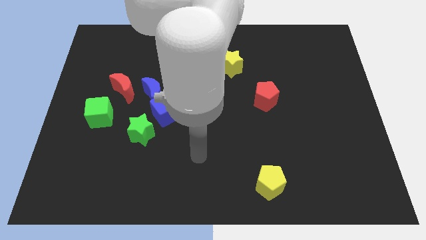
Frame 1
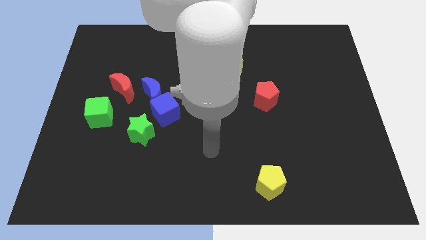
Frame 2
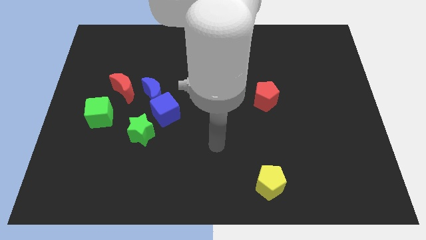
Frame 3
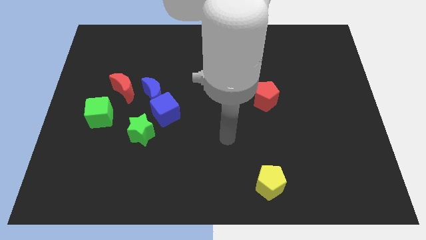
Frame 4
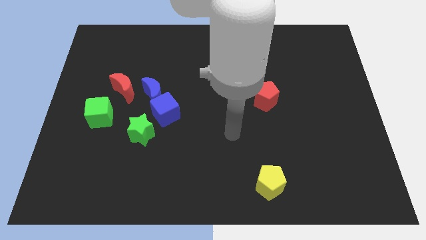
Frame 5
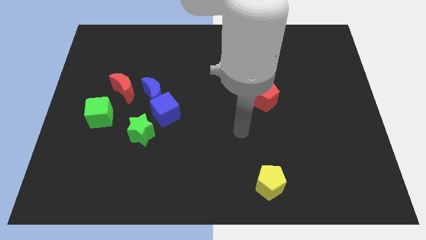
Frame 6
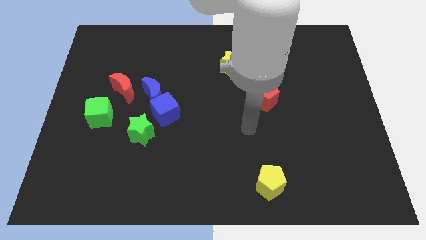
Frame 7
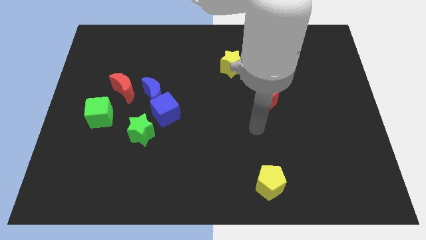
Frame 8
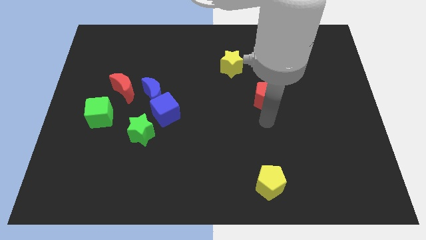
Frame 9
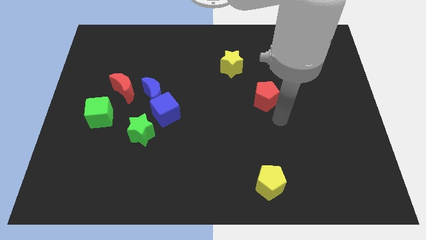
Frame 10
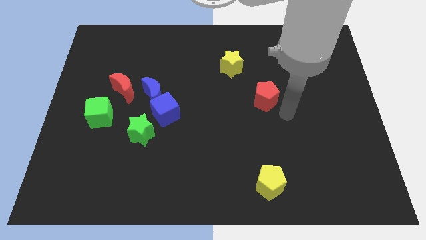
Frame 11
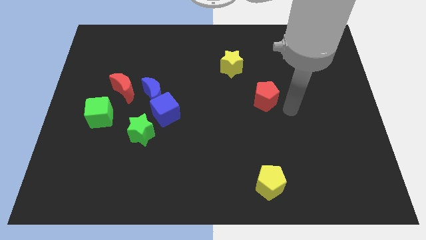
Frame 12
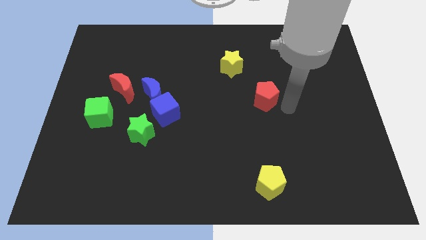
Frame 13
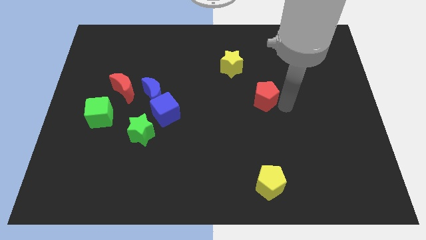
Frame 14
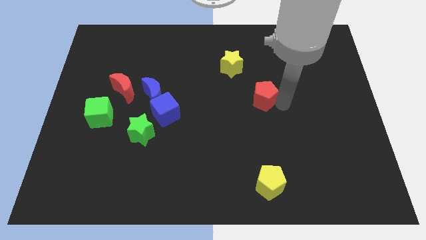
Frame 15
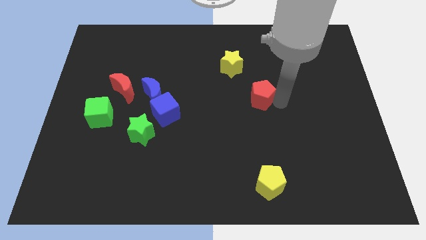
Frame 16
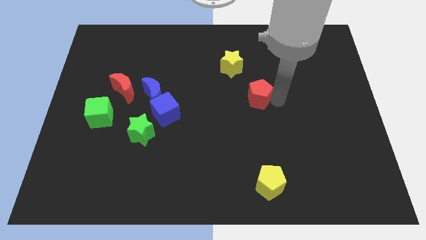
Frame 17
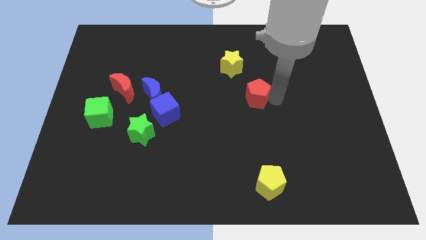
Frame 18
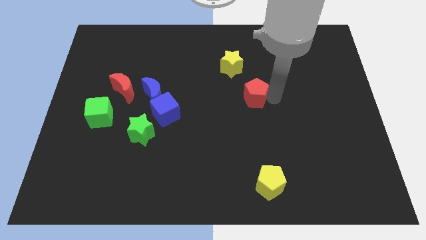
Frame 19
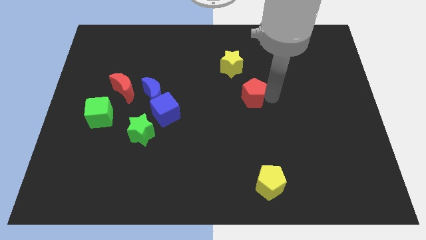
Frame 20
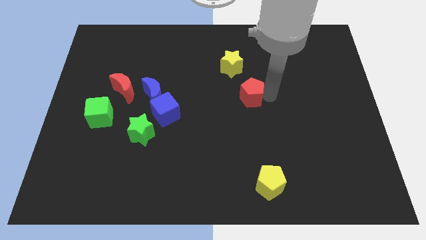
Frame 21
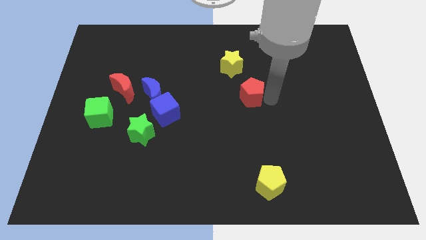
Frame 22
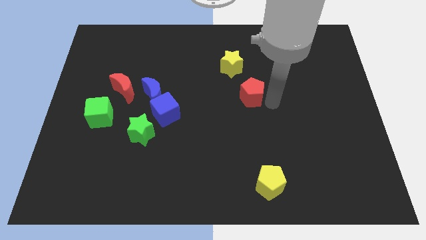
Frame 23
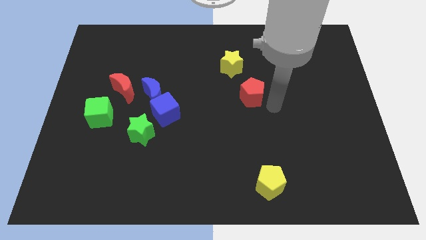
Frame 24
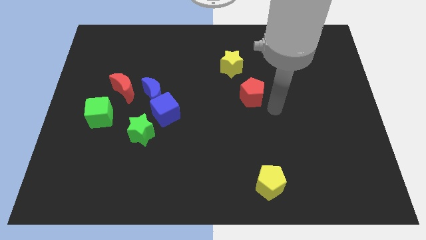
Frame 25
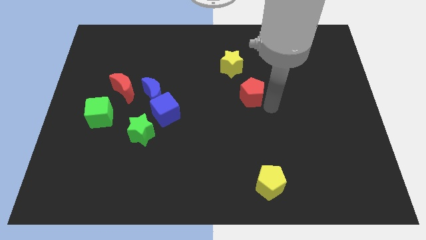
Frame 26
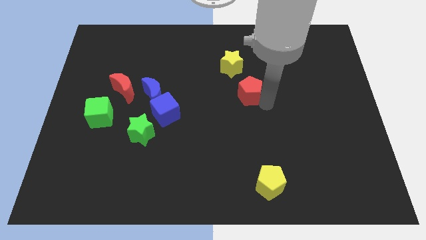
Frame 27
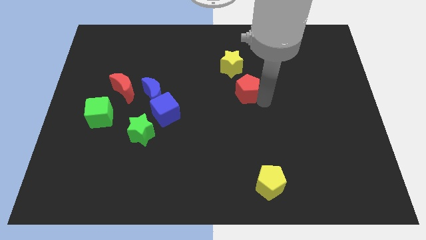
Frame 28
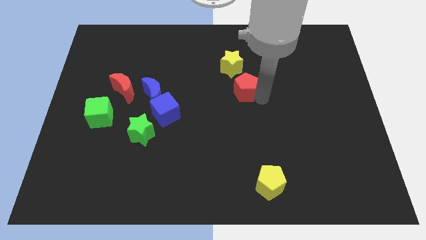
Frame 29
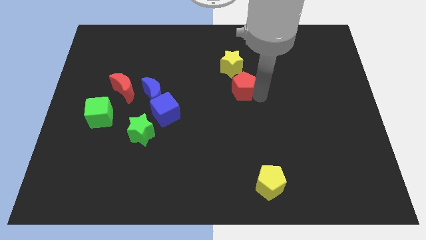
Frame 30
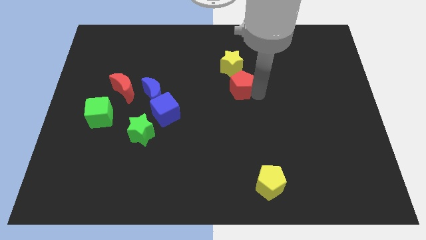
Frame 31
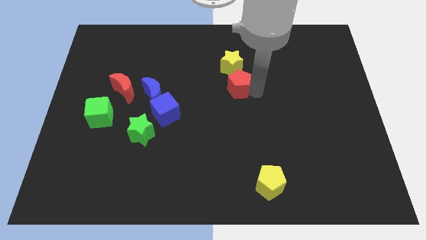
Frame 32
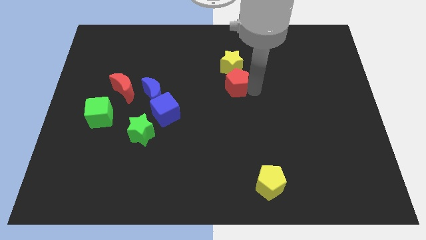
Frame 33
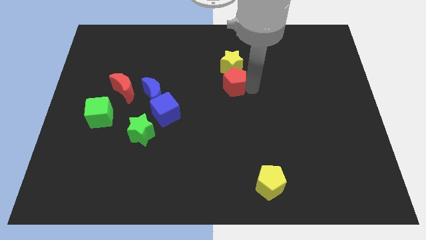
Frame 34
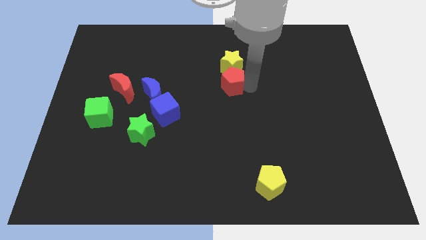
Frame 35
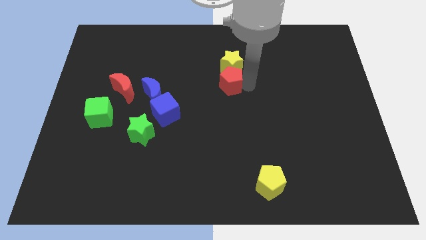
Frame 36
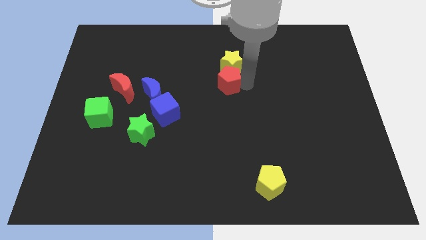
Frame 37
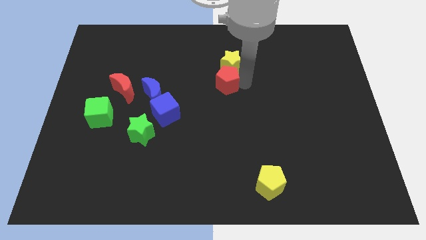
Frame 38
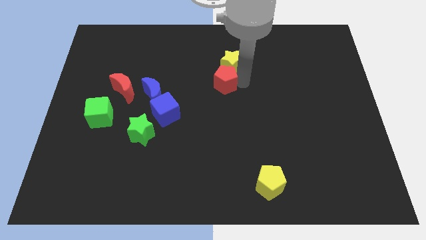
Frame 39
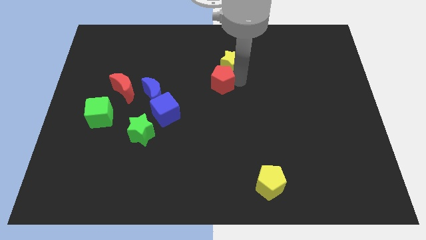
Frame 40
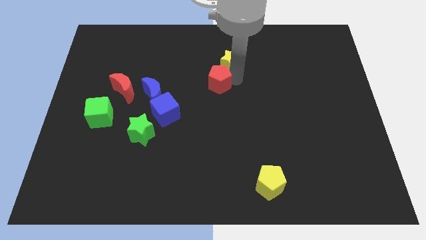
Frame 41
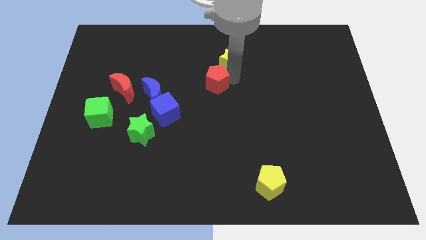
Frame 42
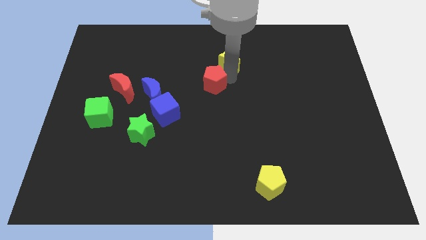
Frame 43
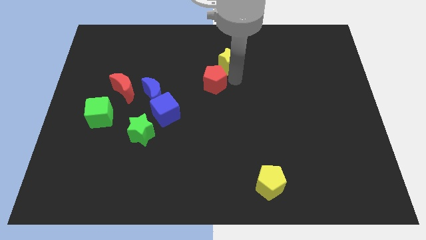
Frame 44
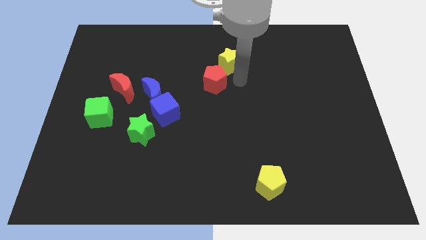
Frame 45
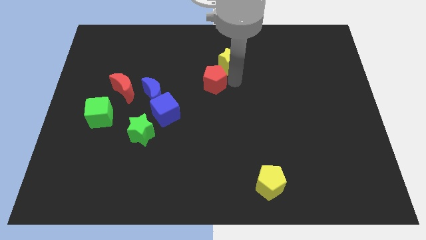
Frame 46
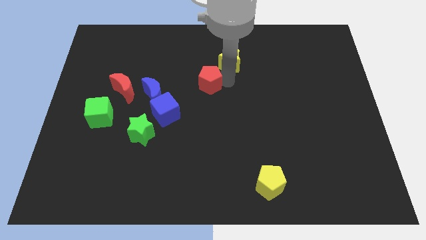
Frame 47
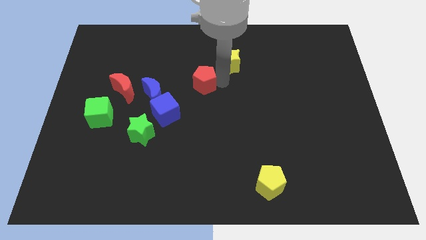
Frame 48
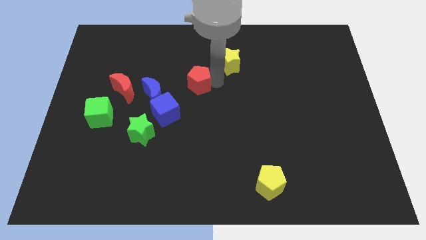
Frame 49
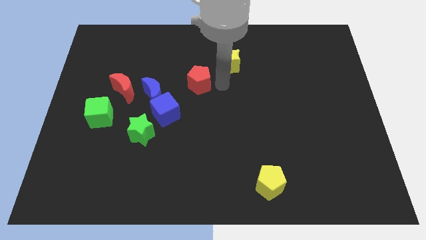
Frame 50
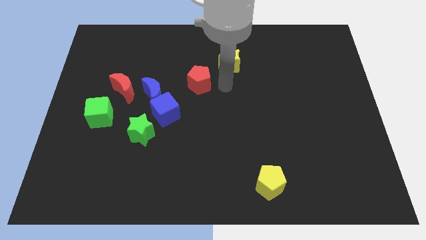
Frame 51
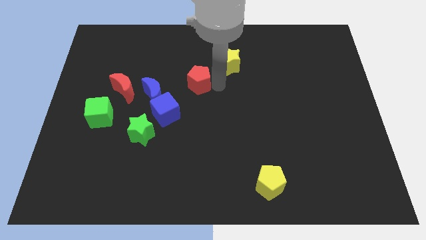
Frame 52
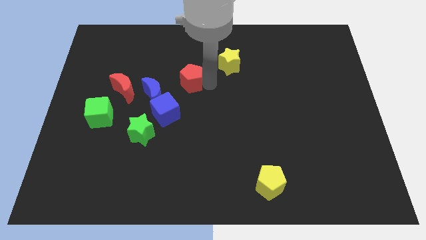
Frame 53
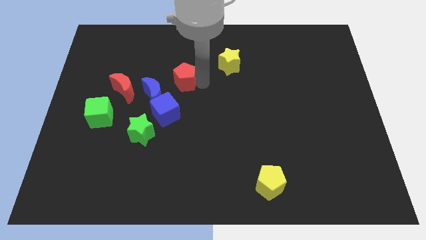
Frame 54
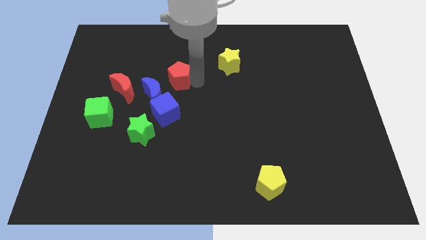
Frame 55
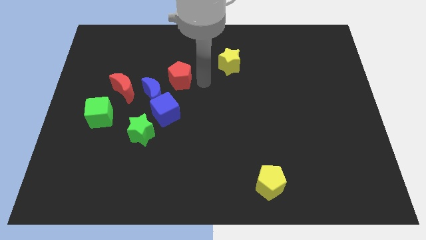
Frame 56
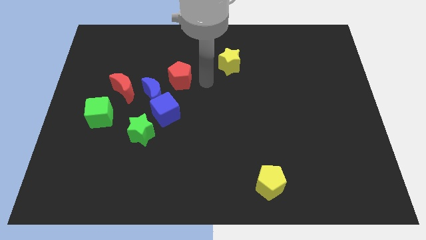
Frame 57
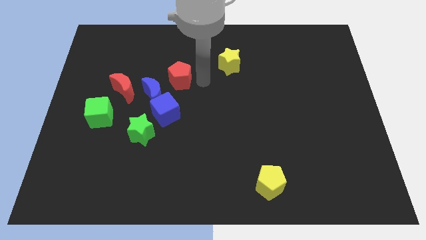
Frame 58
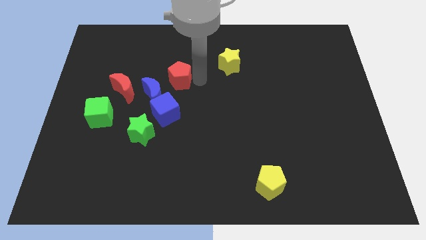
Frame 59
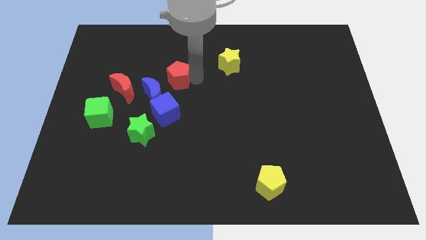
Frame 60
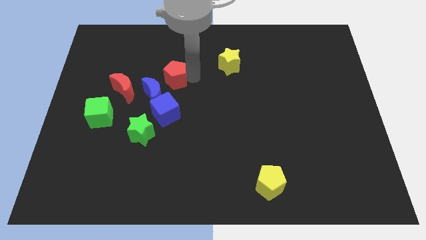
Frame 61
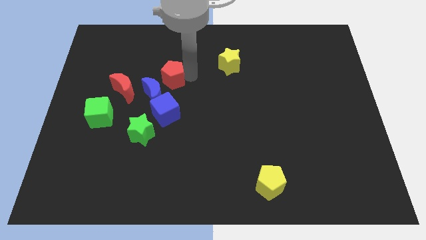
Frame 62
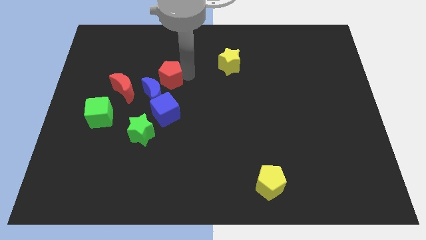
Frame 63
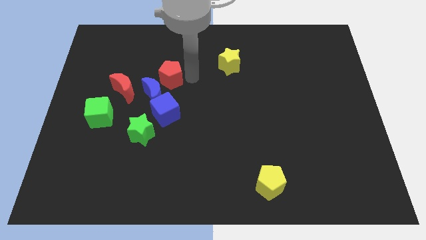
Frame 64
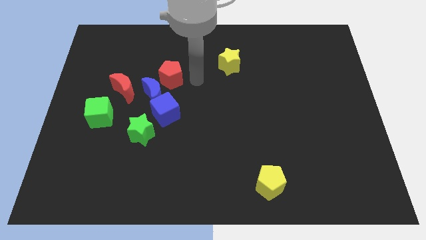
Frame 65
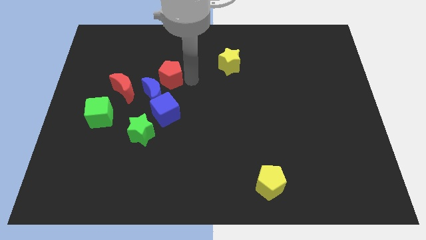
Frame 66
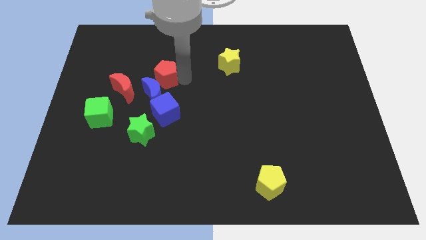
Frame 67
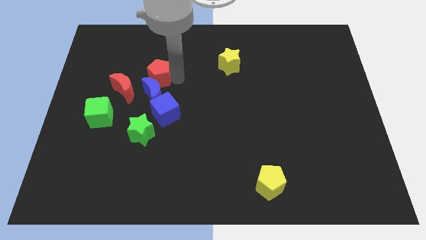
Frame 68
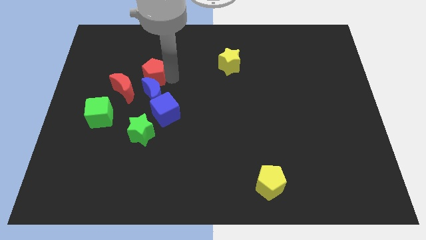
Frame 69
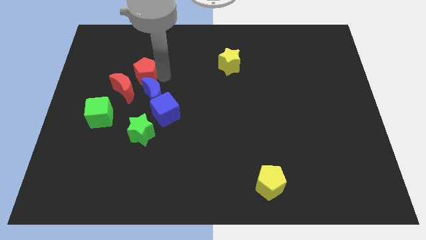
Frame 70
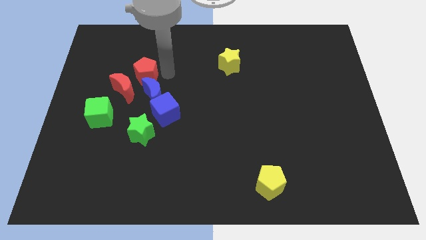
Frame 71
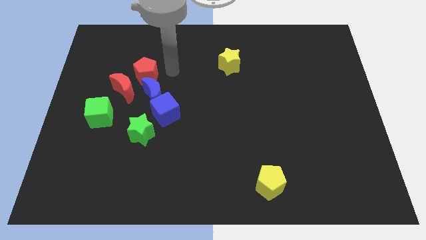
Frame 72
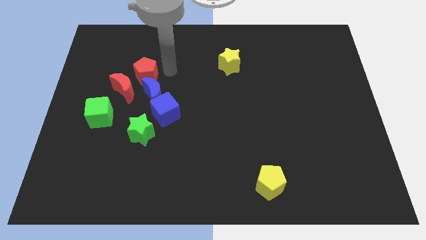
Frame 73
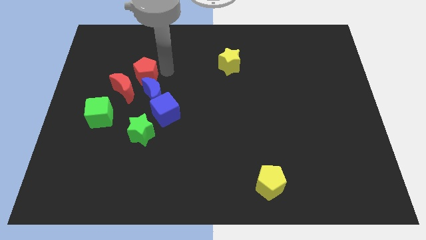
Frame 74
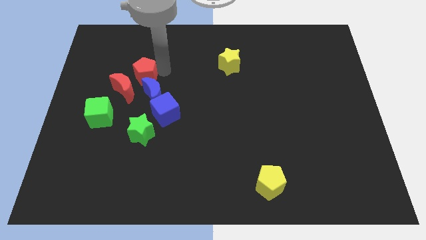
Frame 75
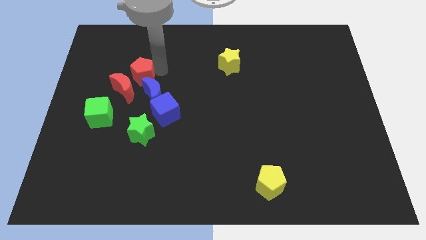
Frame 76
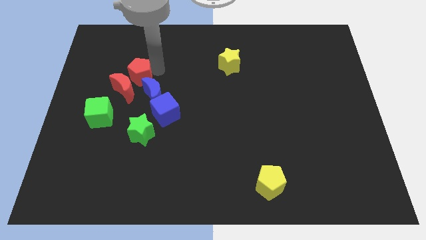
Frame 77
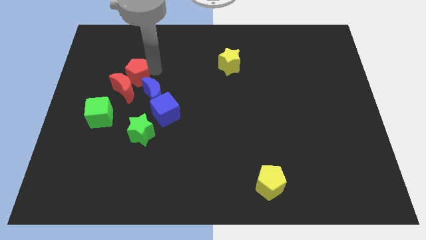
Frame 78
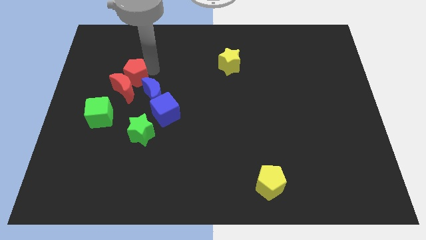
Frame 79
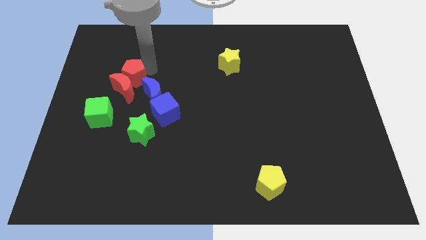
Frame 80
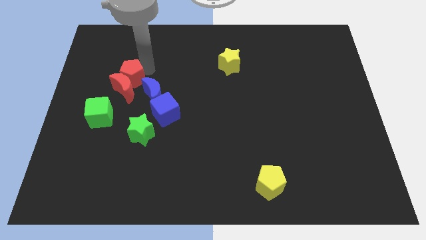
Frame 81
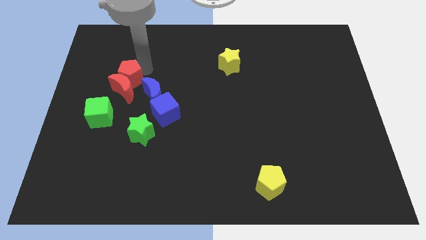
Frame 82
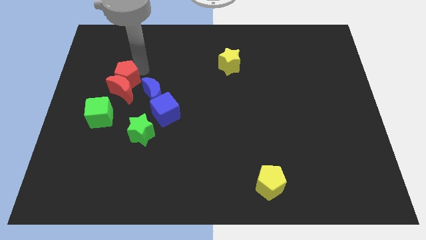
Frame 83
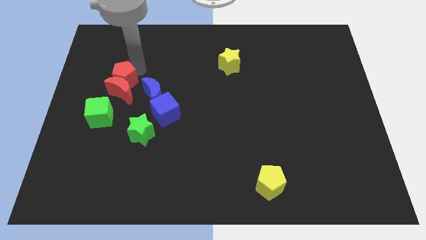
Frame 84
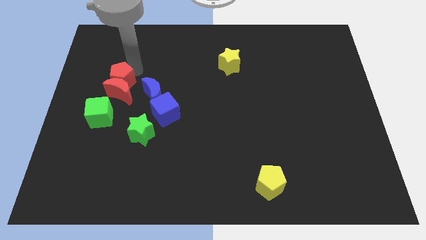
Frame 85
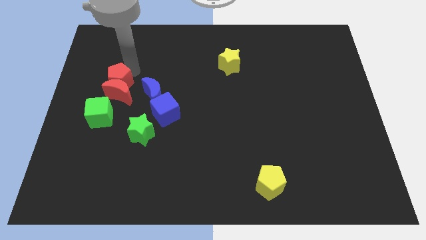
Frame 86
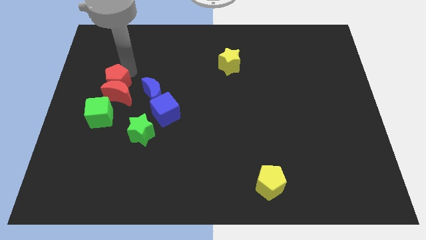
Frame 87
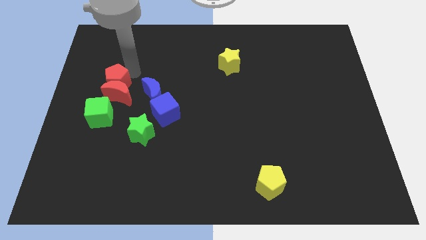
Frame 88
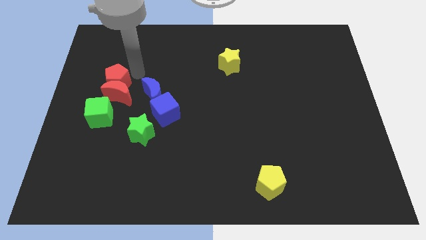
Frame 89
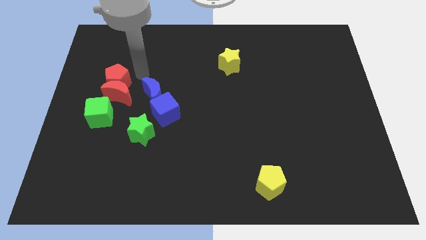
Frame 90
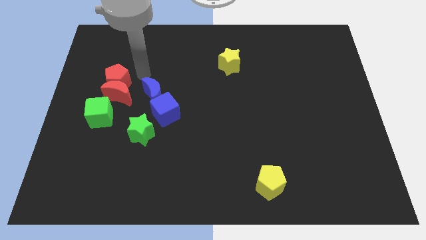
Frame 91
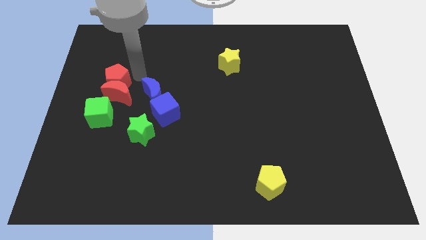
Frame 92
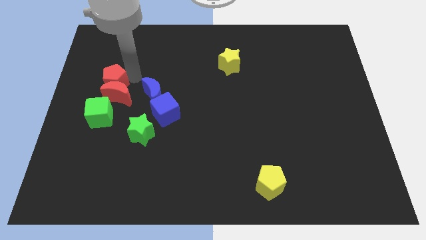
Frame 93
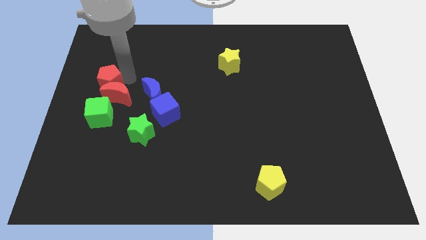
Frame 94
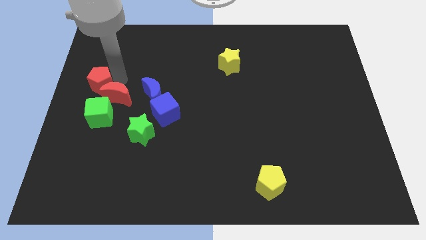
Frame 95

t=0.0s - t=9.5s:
slide the red pentagon to the left side
